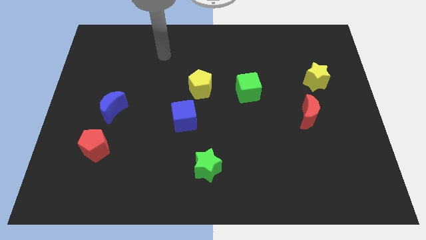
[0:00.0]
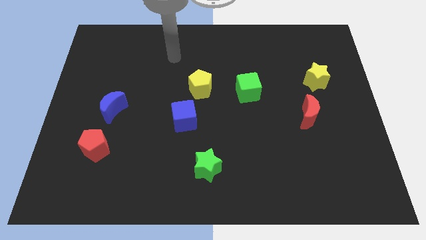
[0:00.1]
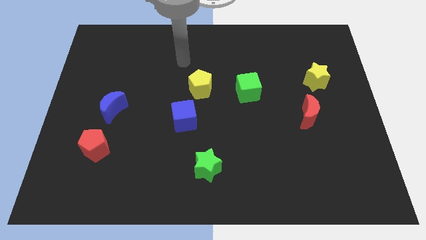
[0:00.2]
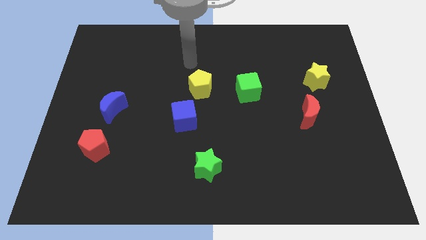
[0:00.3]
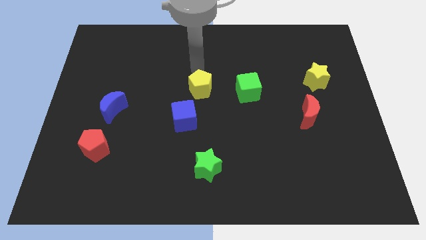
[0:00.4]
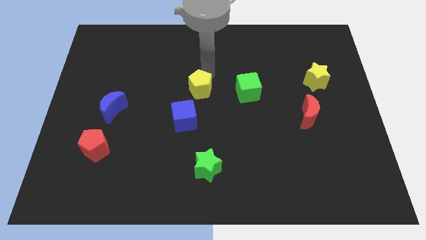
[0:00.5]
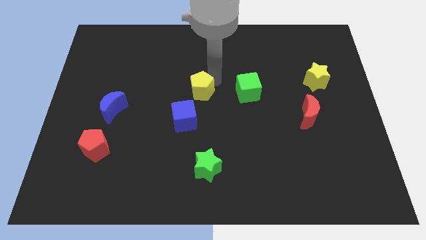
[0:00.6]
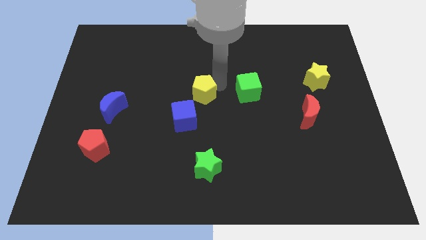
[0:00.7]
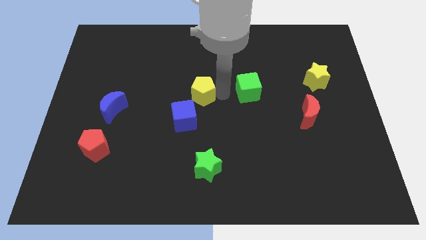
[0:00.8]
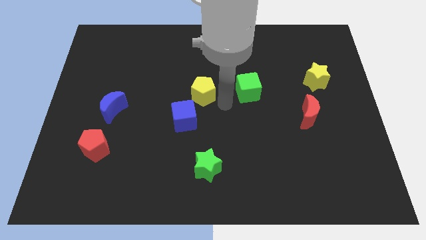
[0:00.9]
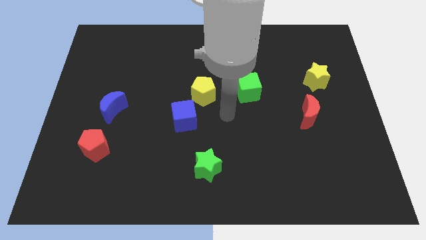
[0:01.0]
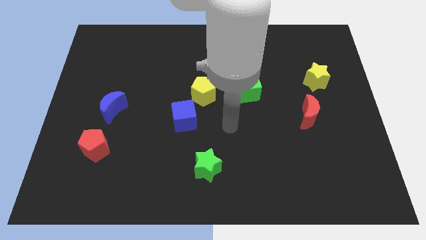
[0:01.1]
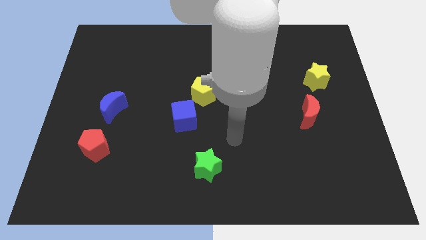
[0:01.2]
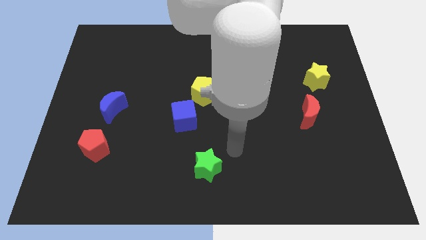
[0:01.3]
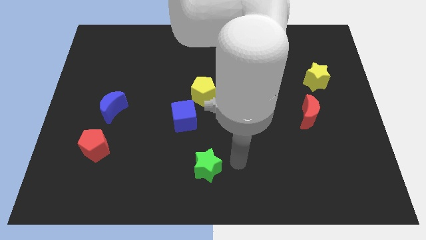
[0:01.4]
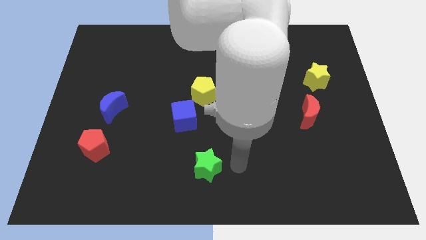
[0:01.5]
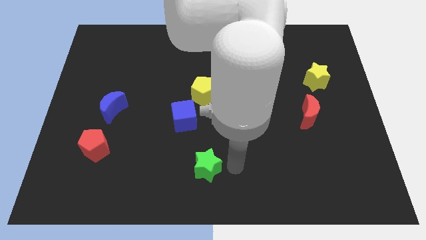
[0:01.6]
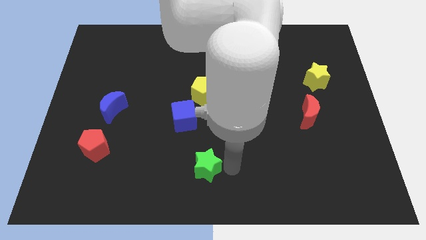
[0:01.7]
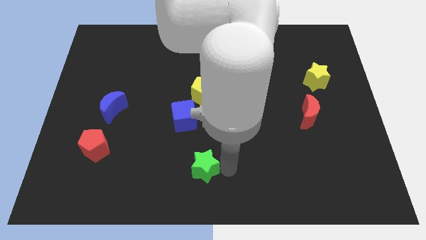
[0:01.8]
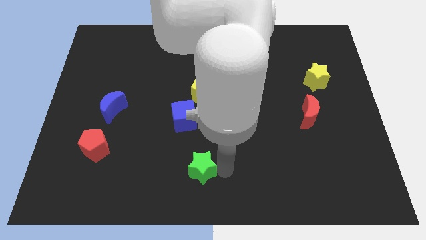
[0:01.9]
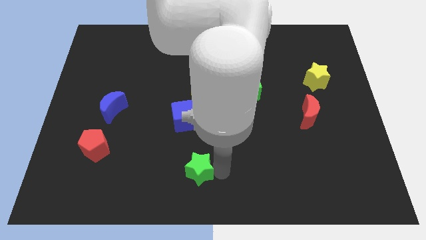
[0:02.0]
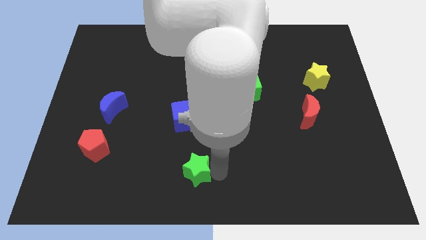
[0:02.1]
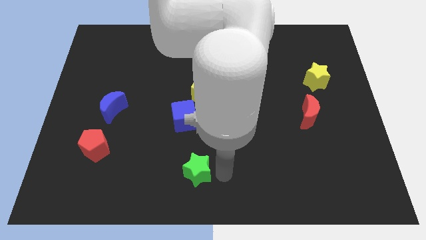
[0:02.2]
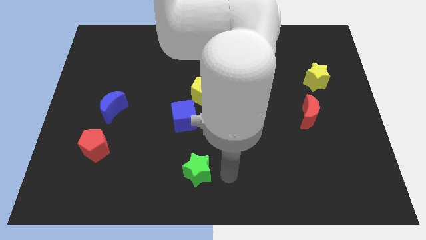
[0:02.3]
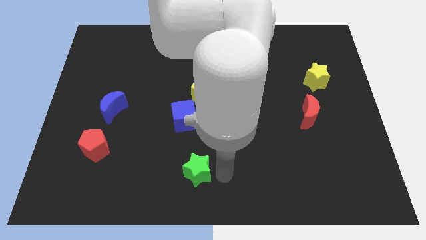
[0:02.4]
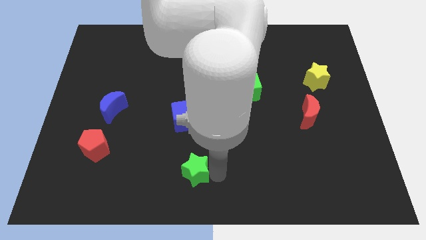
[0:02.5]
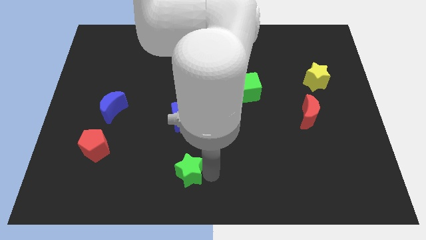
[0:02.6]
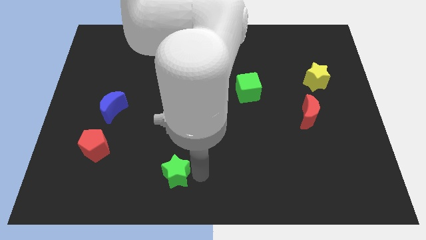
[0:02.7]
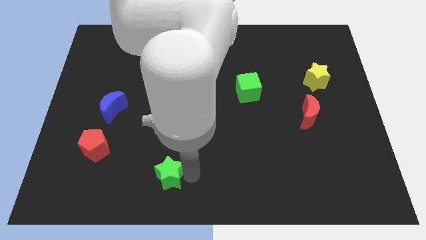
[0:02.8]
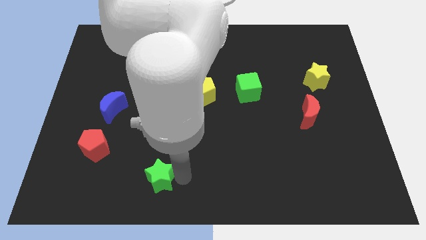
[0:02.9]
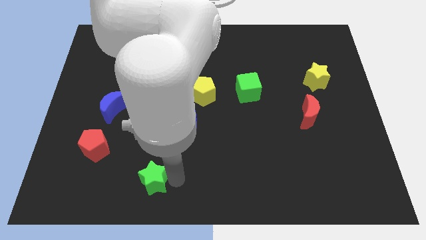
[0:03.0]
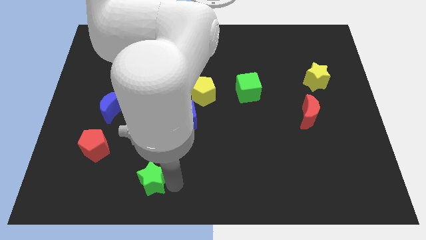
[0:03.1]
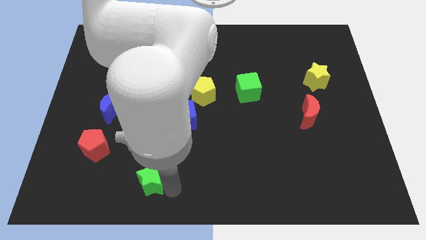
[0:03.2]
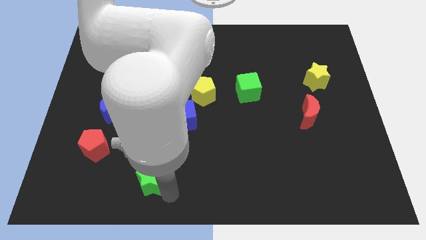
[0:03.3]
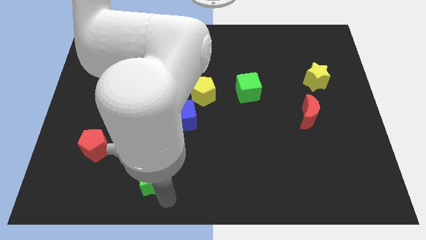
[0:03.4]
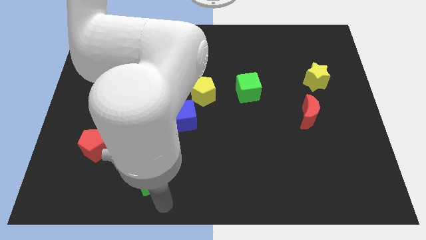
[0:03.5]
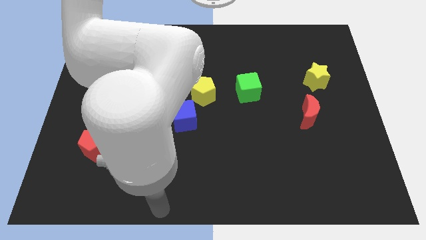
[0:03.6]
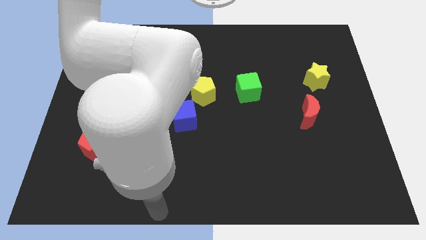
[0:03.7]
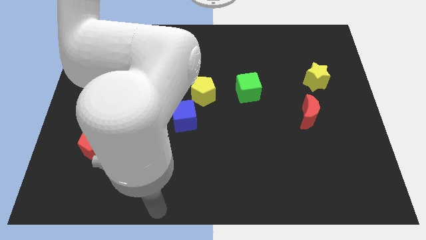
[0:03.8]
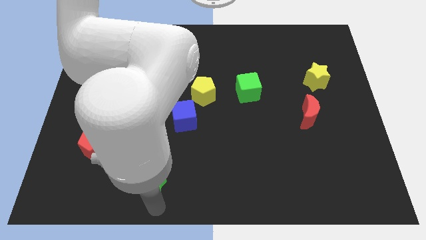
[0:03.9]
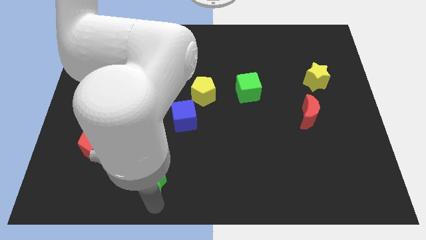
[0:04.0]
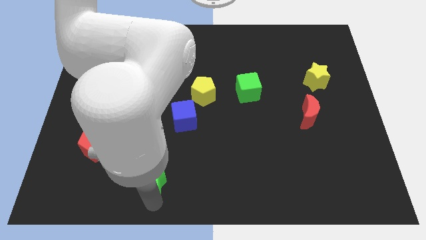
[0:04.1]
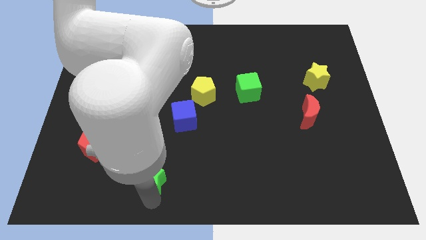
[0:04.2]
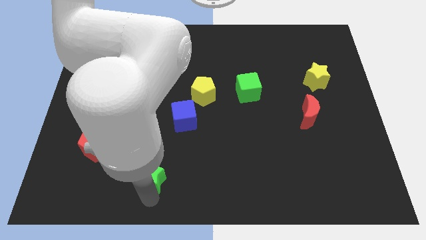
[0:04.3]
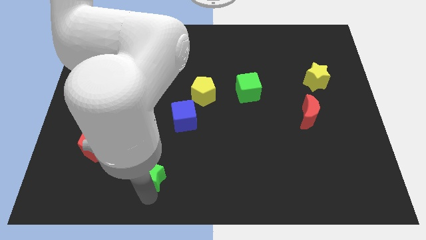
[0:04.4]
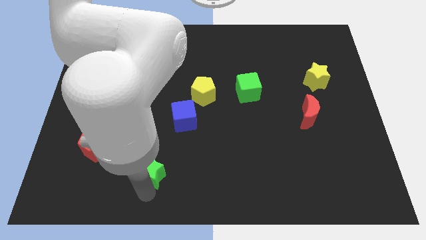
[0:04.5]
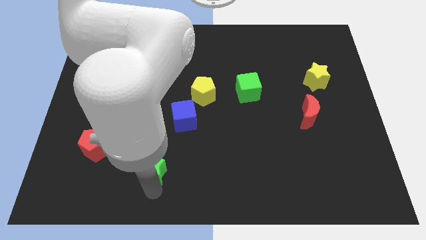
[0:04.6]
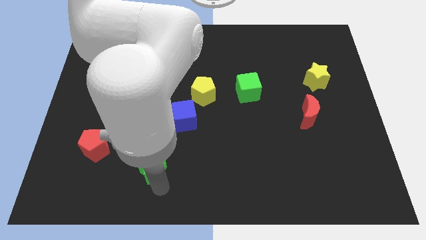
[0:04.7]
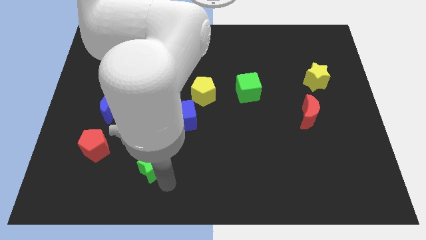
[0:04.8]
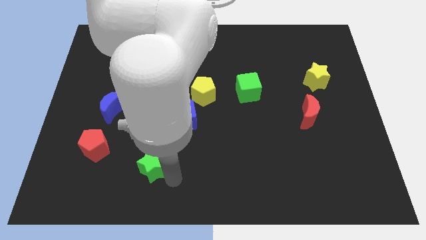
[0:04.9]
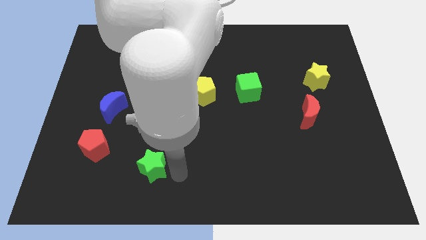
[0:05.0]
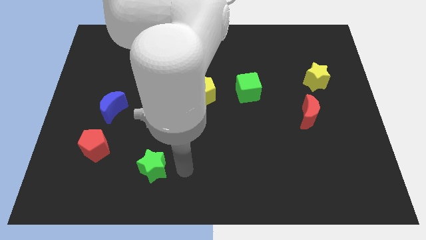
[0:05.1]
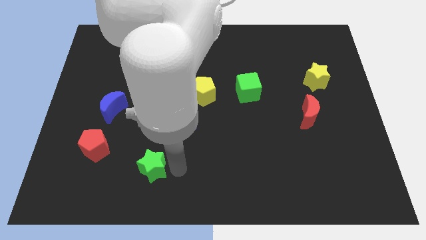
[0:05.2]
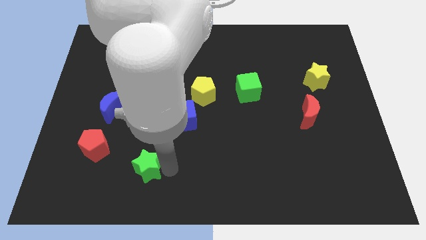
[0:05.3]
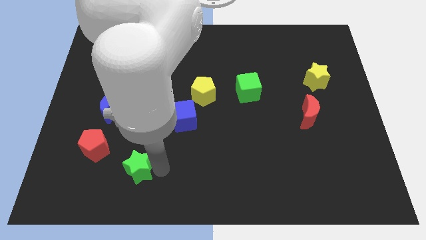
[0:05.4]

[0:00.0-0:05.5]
put the green star to the bottom right of the red pentagon

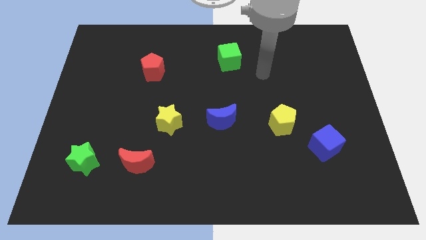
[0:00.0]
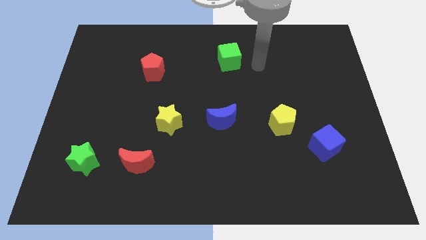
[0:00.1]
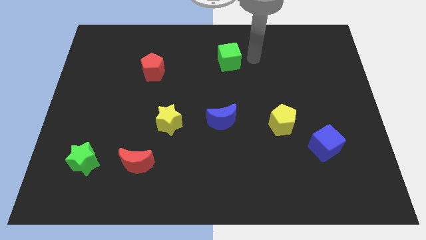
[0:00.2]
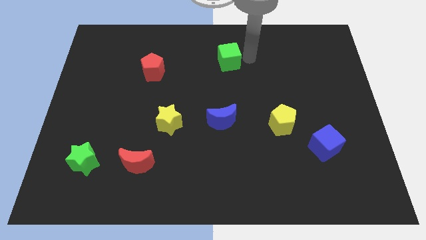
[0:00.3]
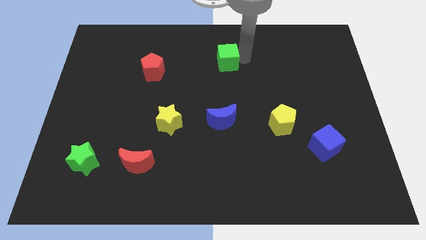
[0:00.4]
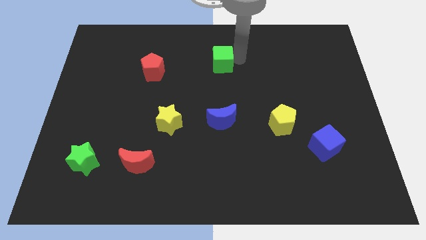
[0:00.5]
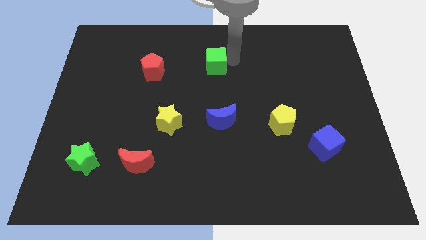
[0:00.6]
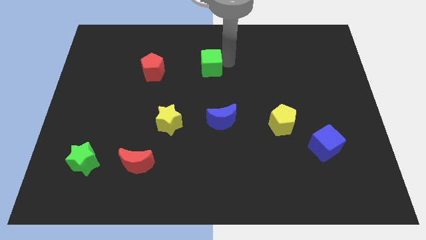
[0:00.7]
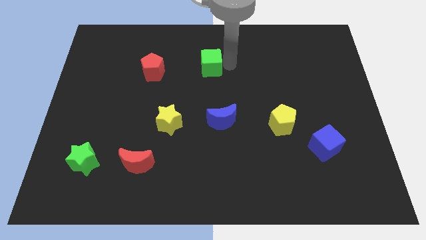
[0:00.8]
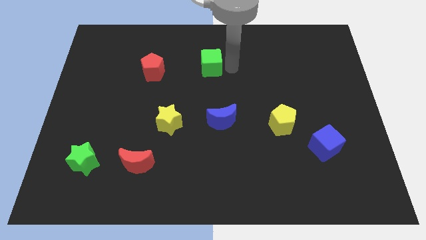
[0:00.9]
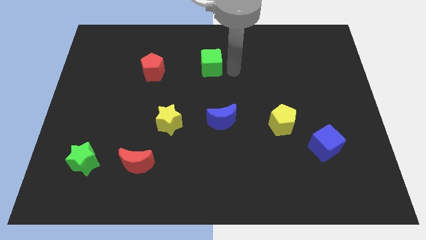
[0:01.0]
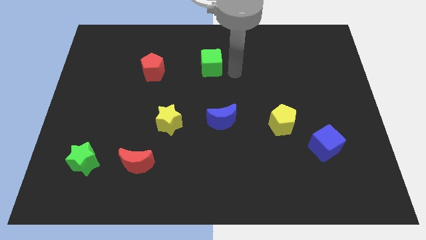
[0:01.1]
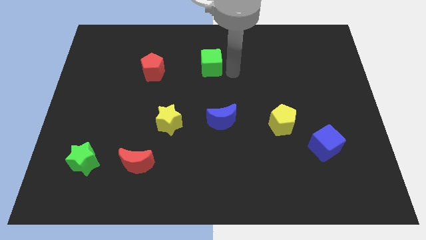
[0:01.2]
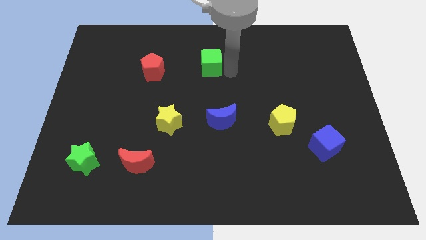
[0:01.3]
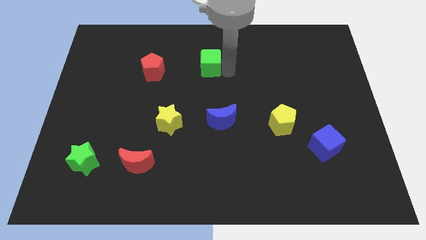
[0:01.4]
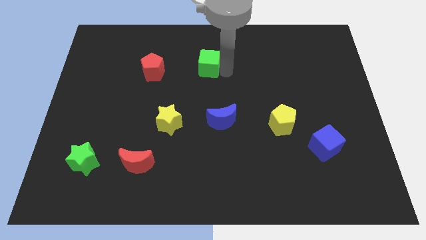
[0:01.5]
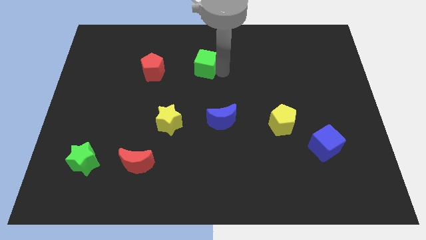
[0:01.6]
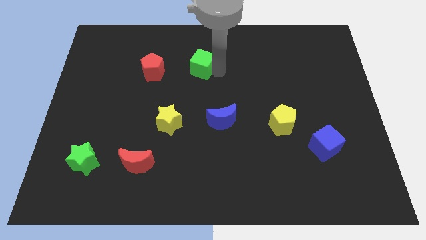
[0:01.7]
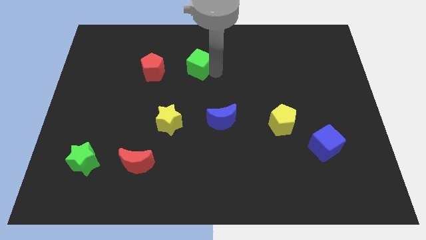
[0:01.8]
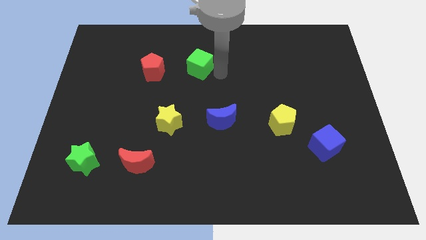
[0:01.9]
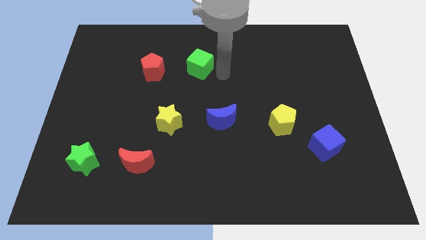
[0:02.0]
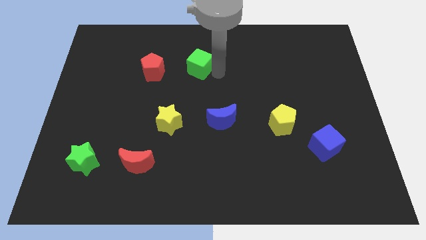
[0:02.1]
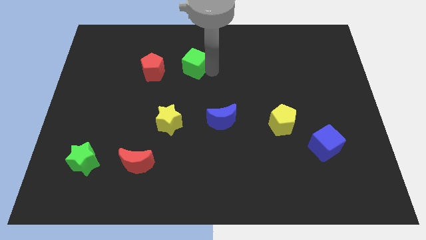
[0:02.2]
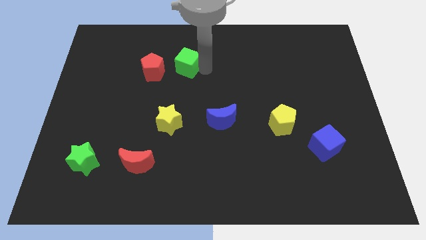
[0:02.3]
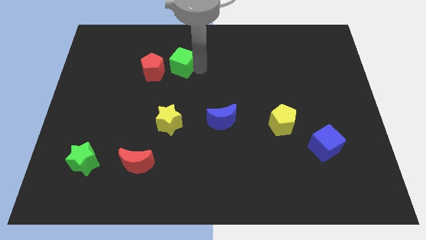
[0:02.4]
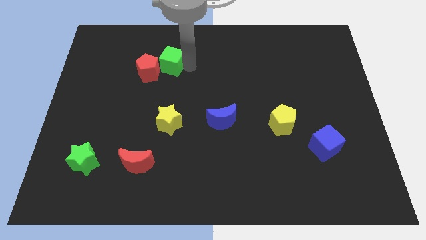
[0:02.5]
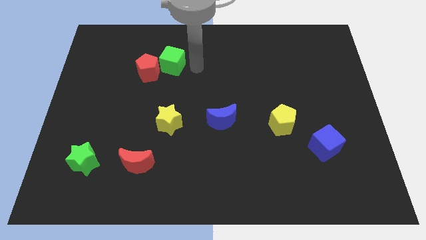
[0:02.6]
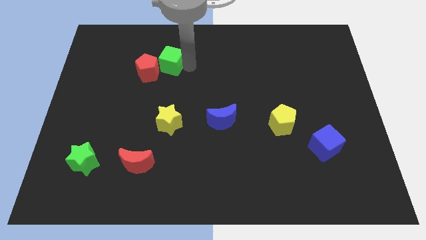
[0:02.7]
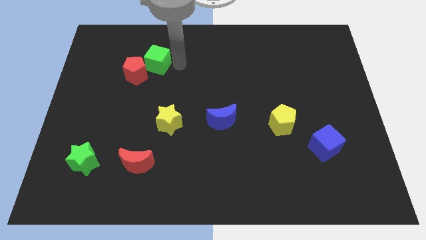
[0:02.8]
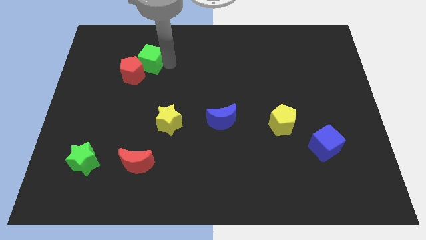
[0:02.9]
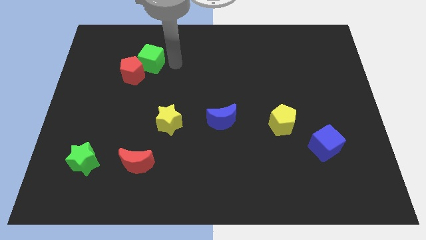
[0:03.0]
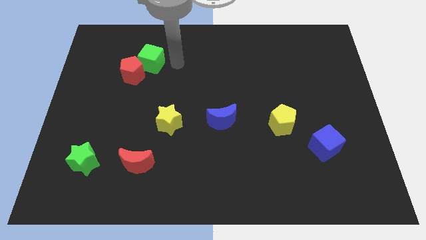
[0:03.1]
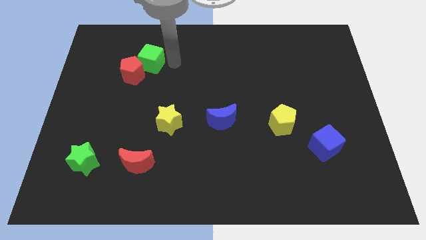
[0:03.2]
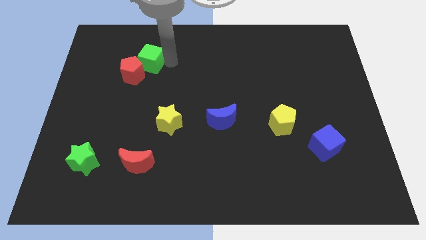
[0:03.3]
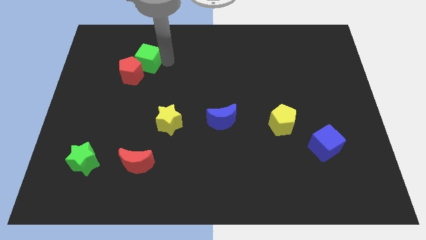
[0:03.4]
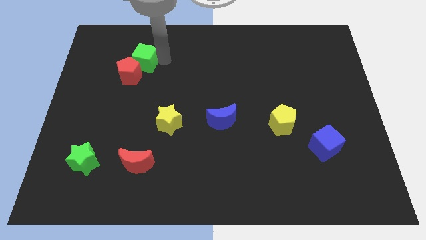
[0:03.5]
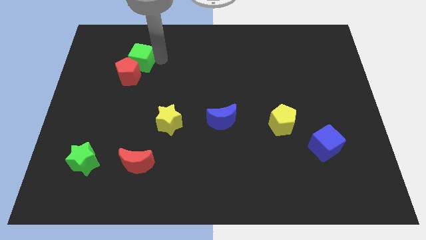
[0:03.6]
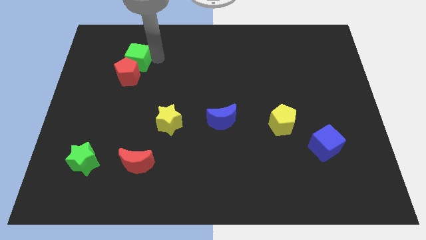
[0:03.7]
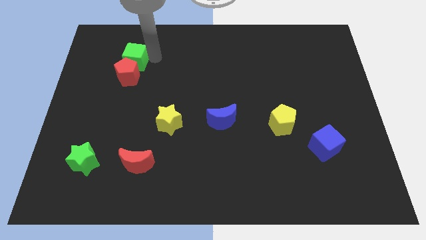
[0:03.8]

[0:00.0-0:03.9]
push the green cube diagonally up and to the left of the red pentagon
